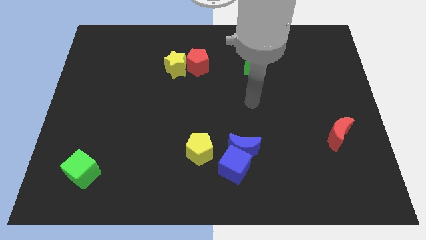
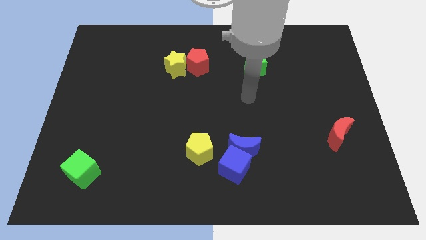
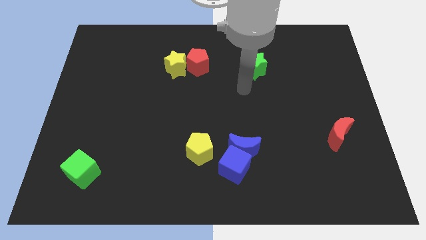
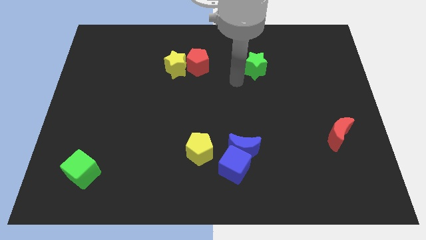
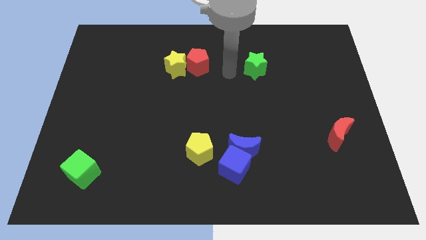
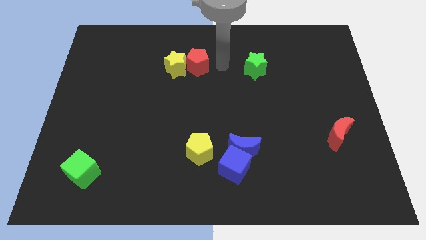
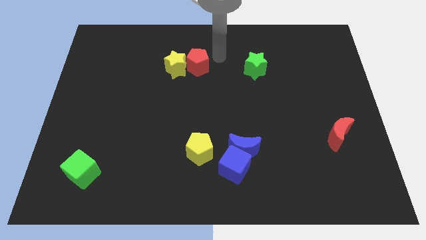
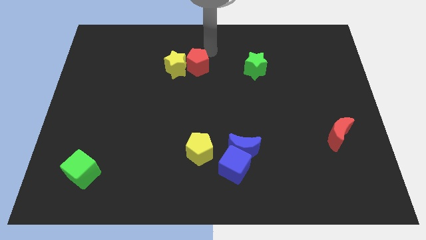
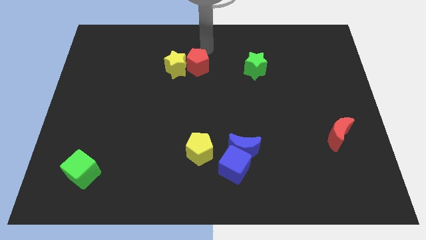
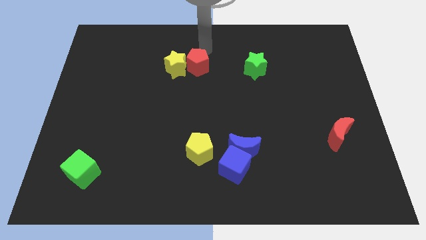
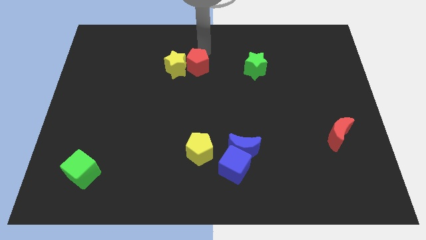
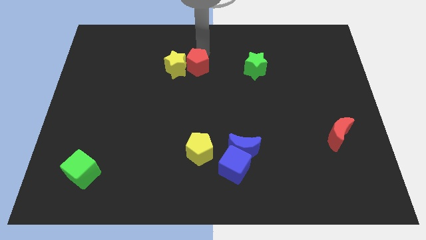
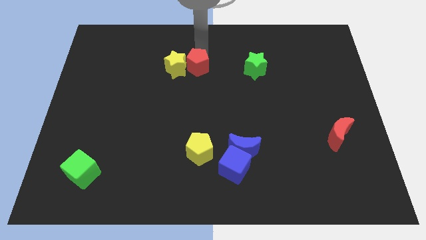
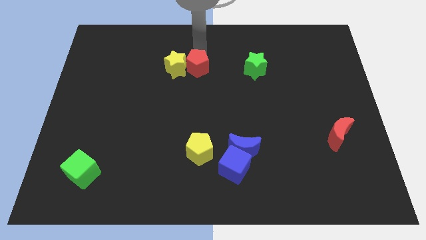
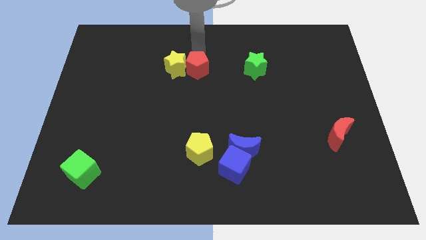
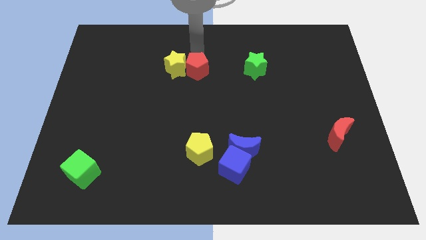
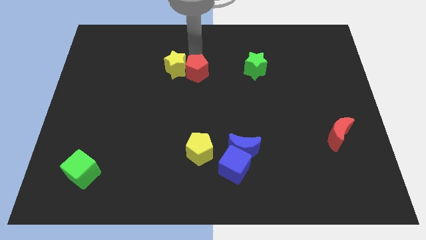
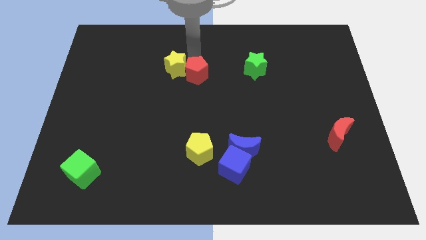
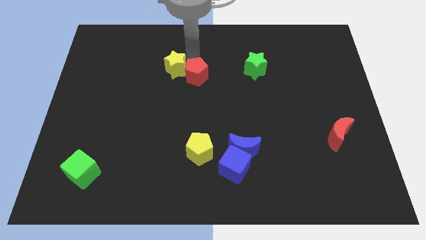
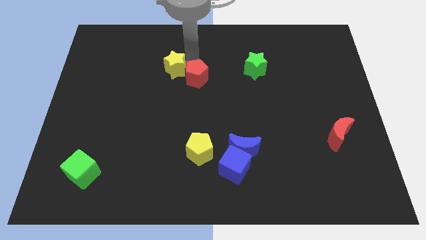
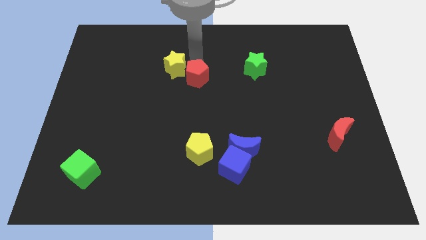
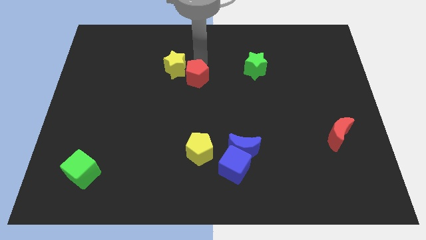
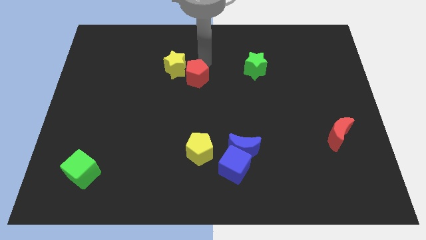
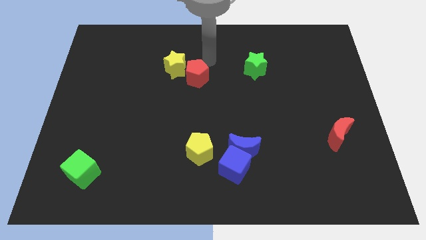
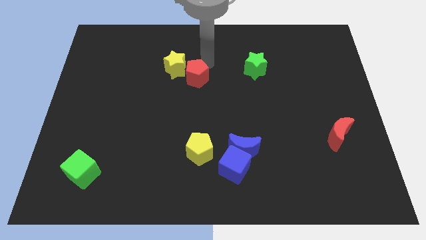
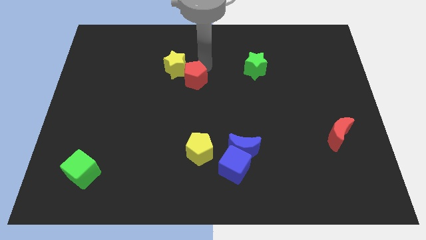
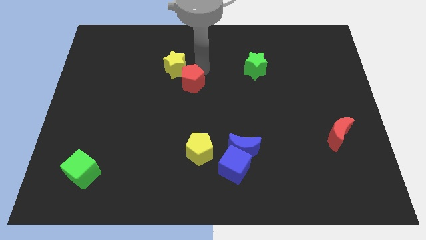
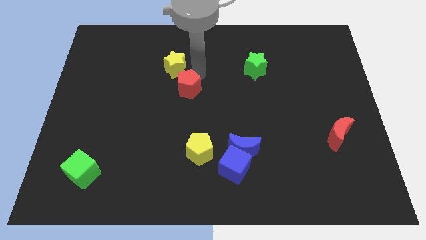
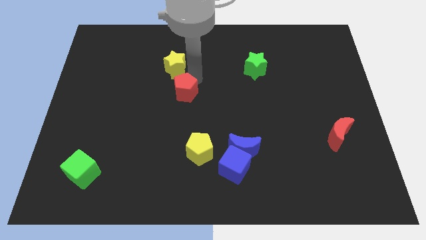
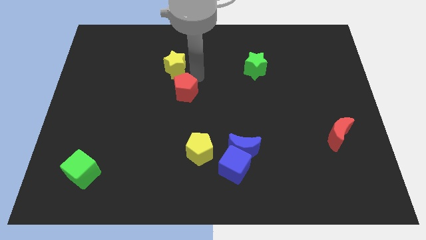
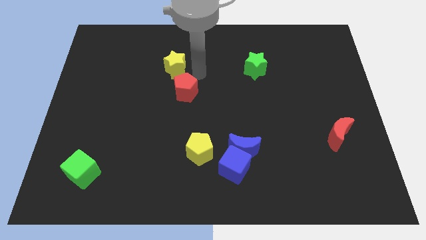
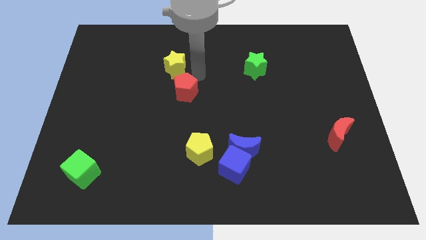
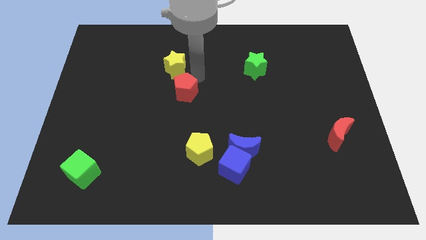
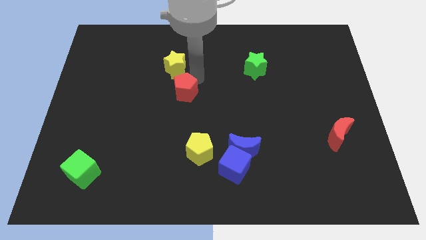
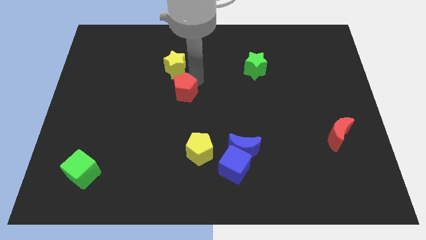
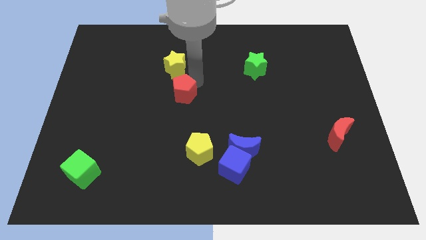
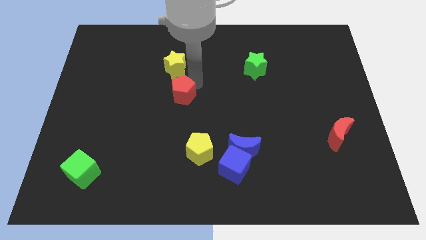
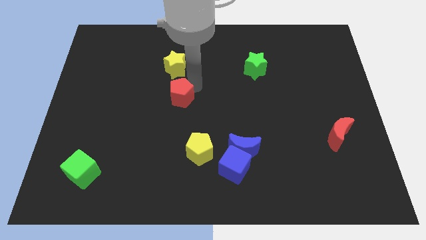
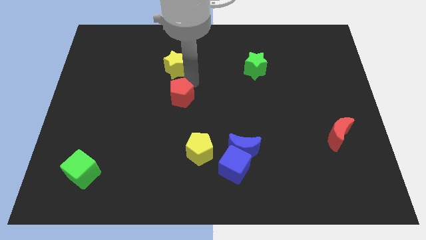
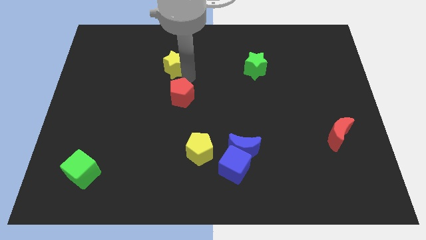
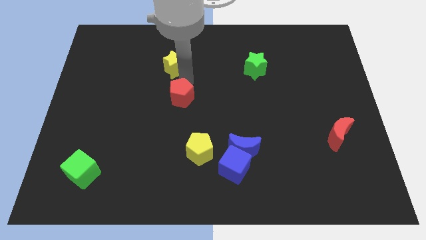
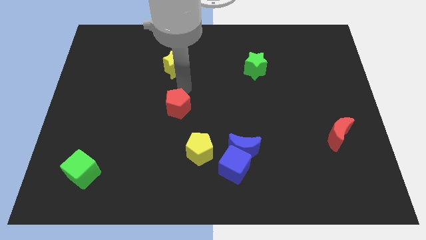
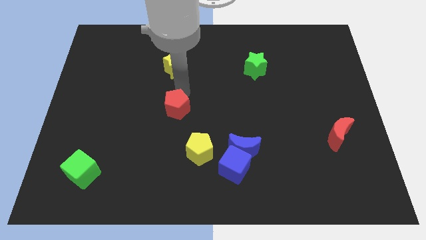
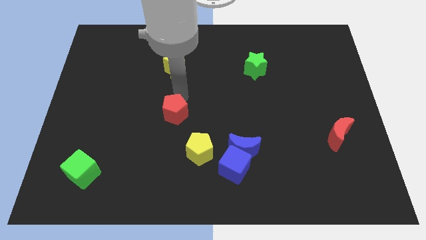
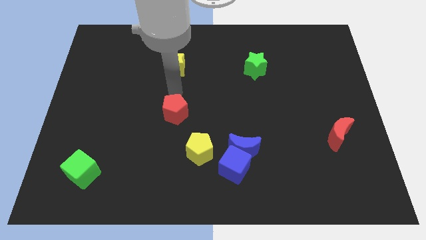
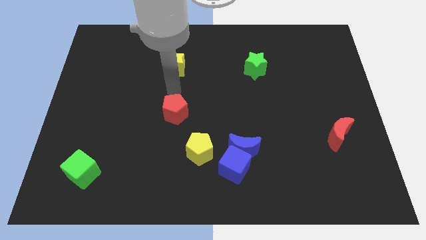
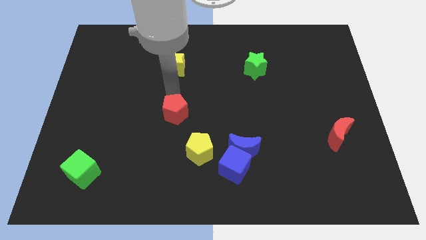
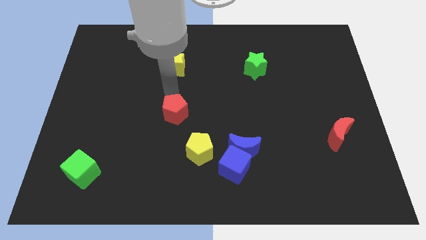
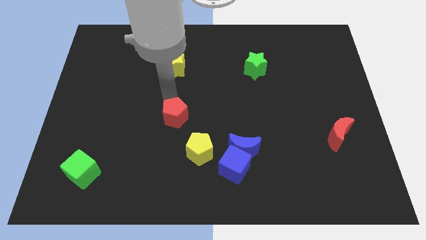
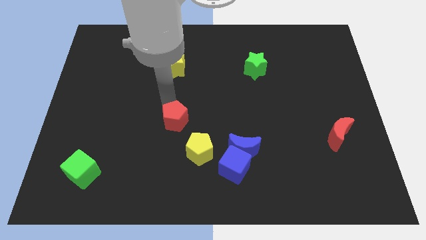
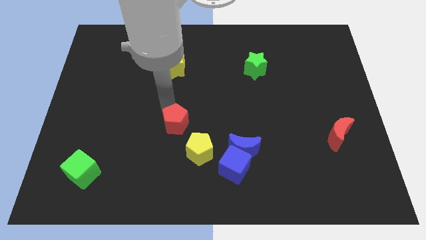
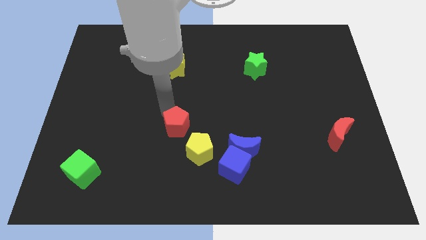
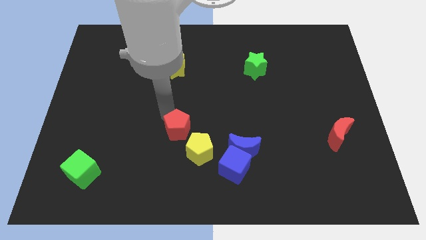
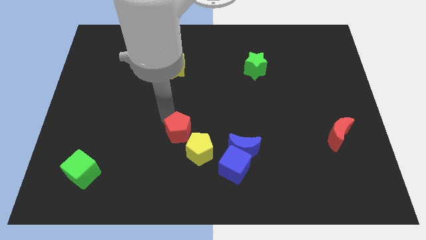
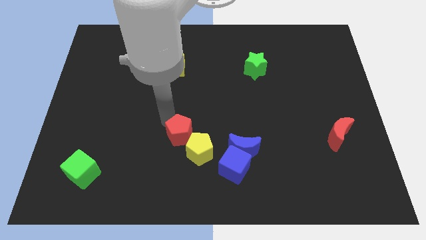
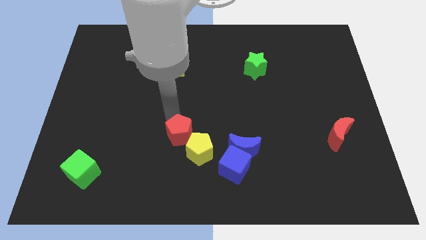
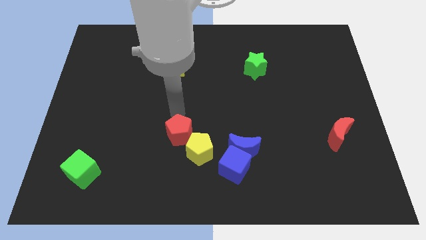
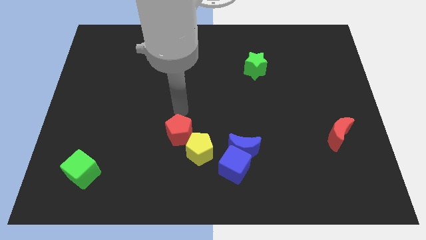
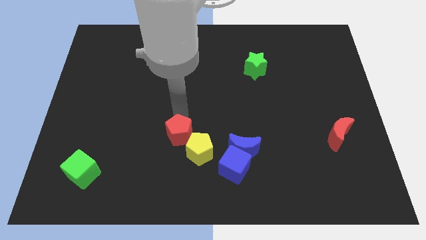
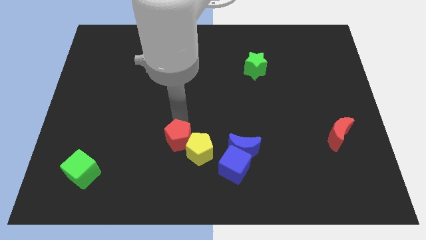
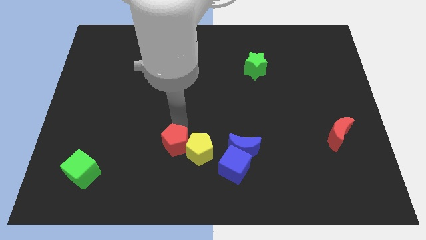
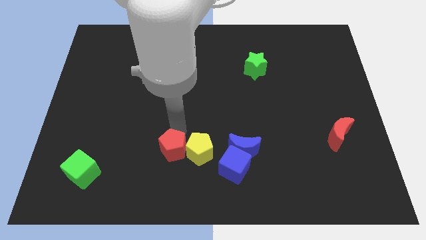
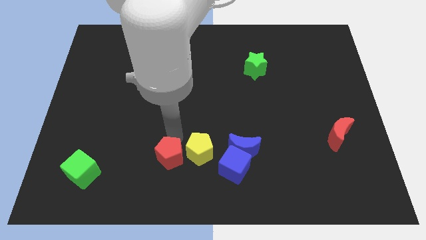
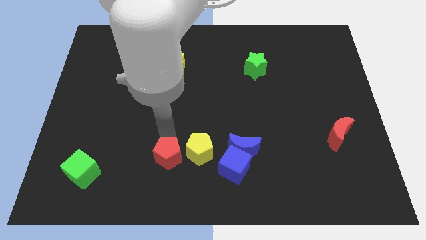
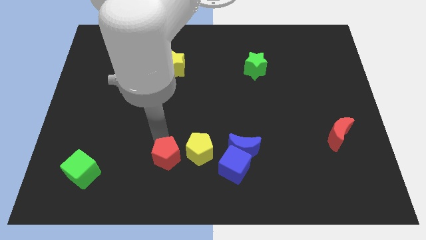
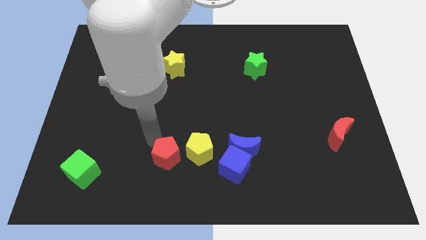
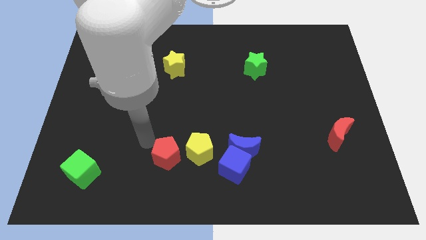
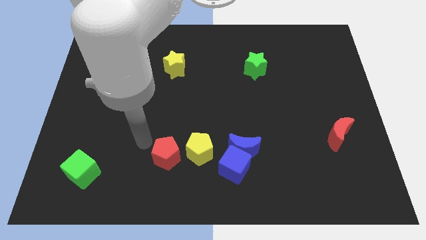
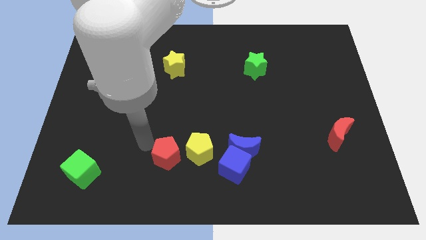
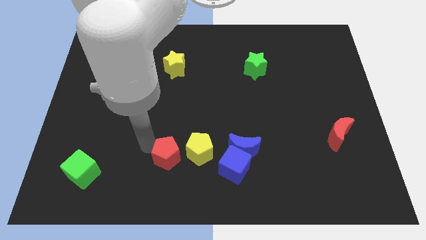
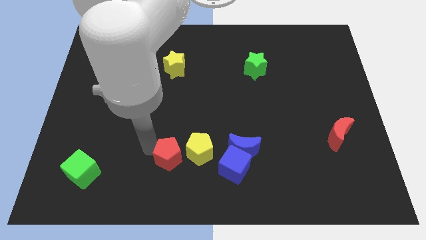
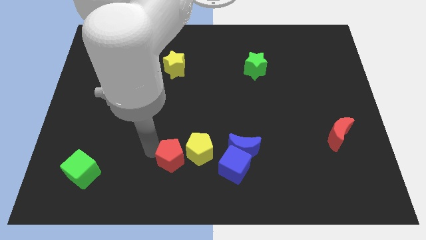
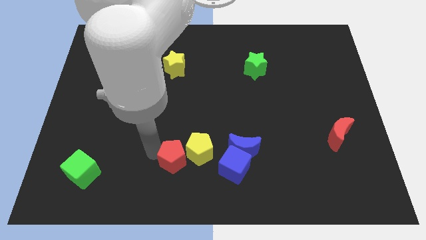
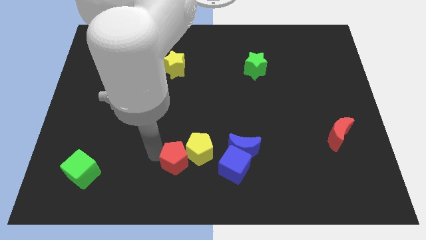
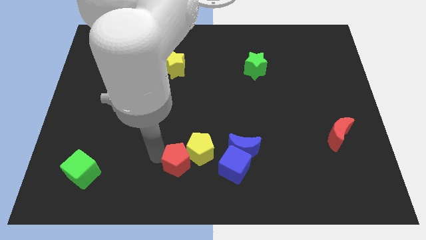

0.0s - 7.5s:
move the red pentagon to the bottom
